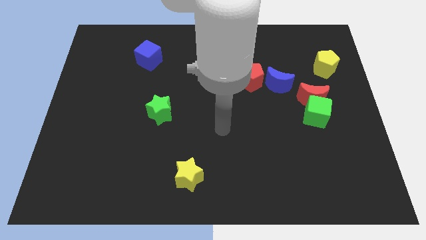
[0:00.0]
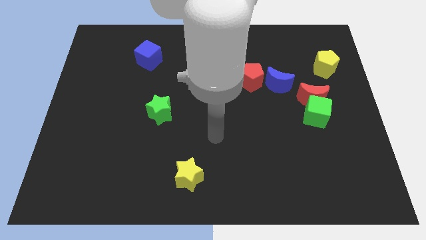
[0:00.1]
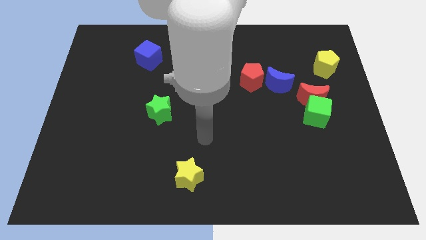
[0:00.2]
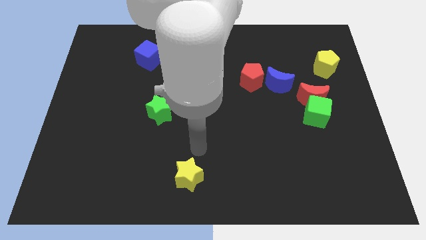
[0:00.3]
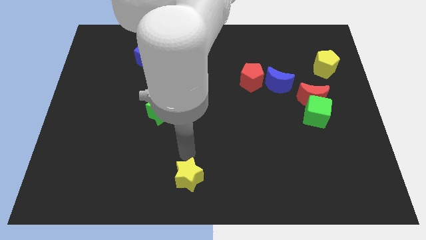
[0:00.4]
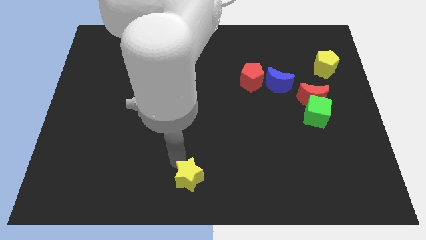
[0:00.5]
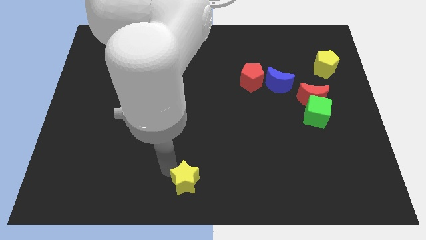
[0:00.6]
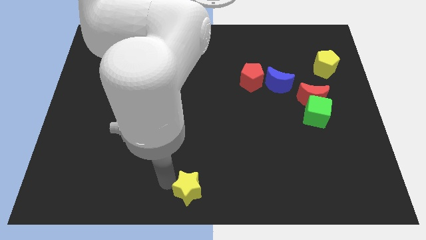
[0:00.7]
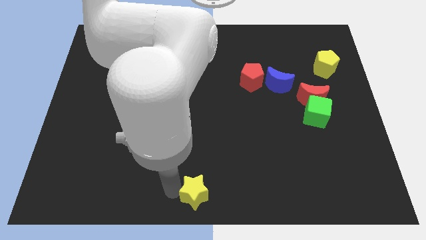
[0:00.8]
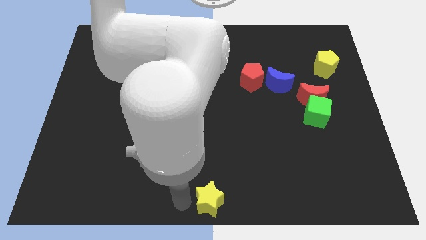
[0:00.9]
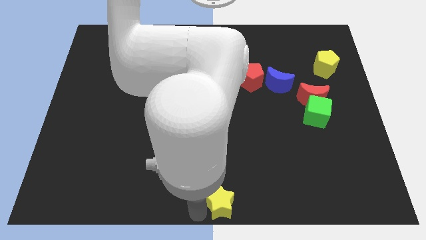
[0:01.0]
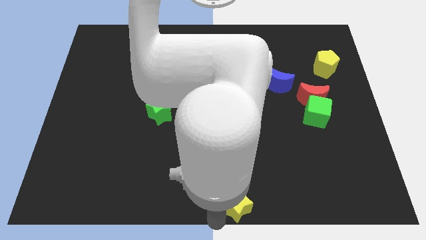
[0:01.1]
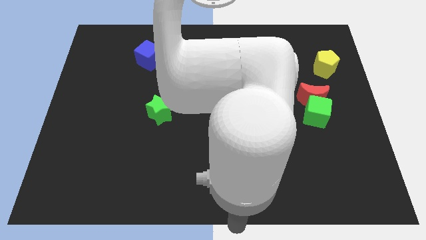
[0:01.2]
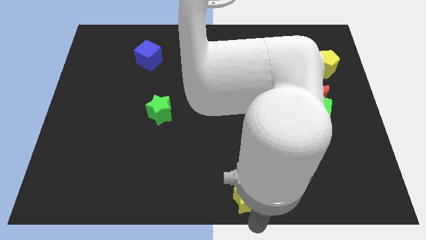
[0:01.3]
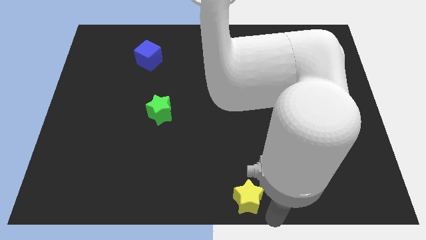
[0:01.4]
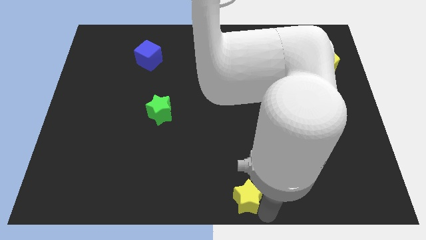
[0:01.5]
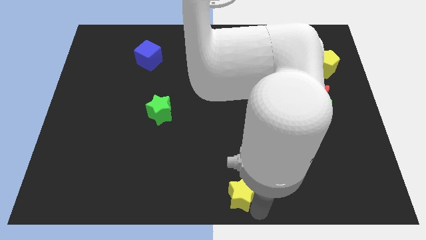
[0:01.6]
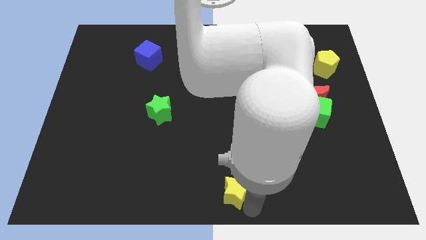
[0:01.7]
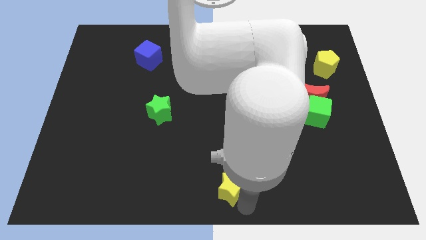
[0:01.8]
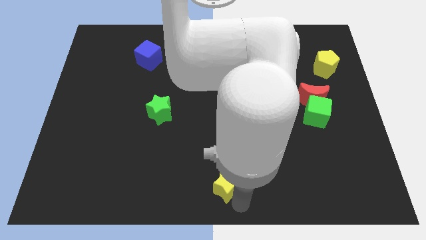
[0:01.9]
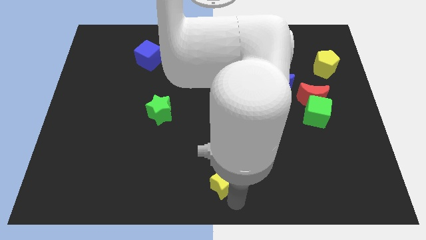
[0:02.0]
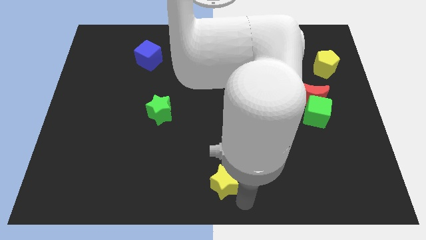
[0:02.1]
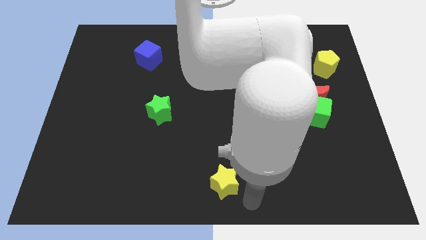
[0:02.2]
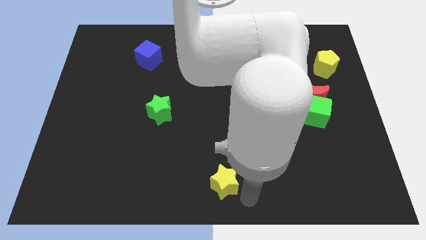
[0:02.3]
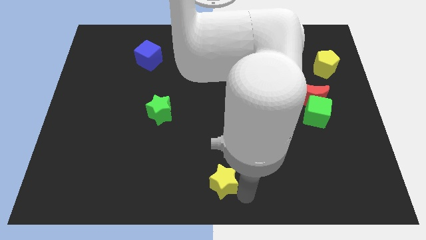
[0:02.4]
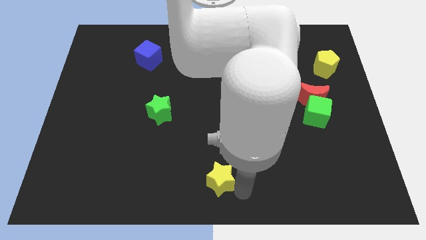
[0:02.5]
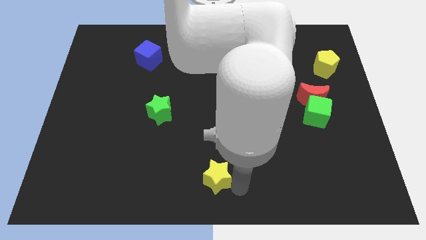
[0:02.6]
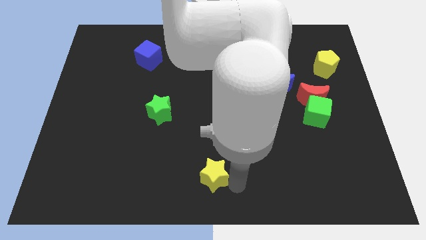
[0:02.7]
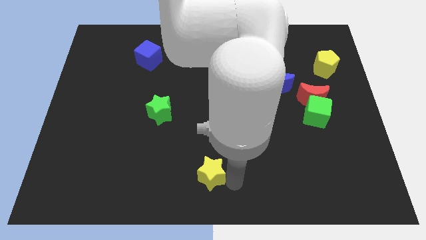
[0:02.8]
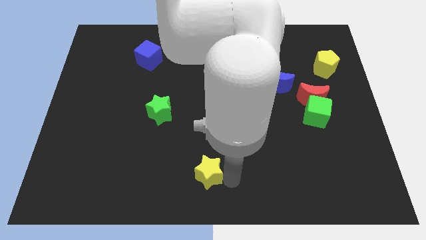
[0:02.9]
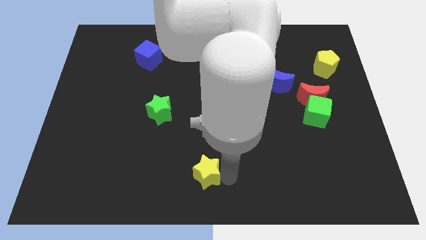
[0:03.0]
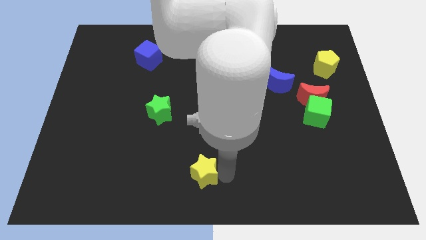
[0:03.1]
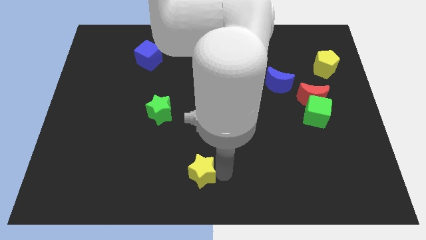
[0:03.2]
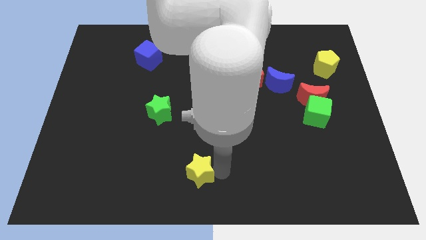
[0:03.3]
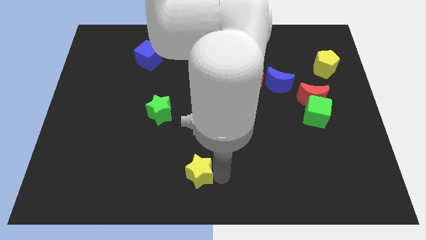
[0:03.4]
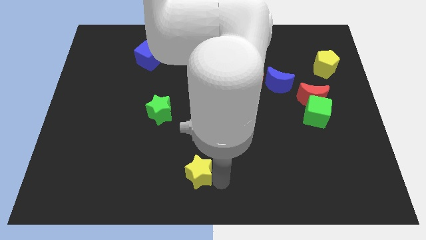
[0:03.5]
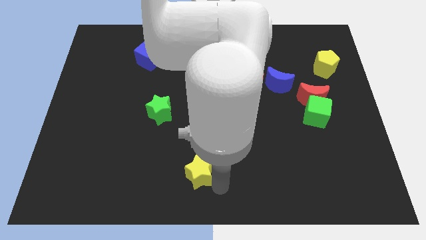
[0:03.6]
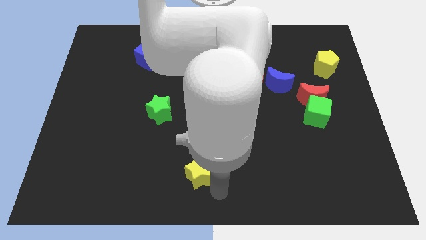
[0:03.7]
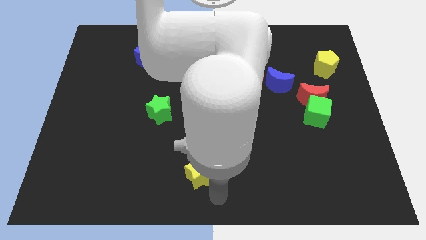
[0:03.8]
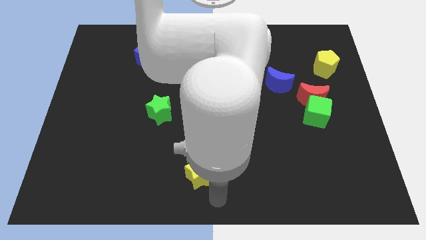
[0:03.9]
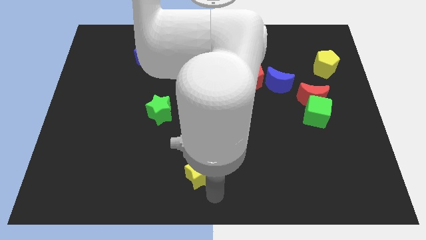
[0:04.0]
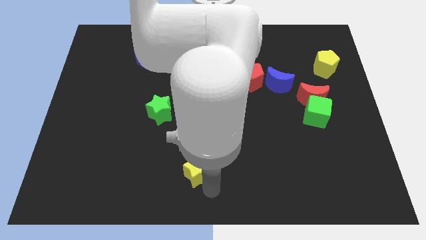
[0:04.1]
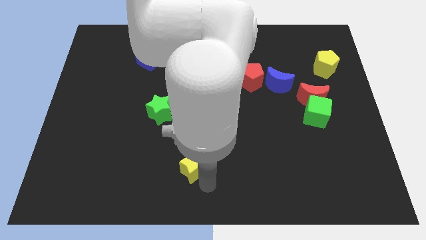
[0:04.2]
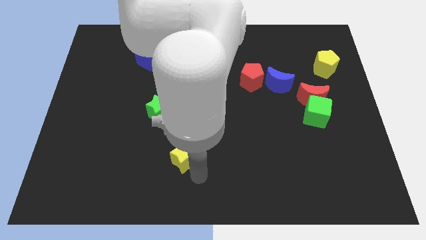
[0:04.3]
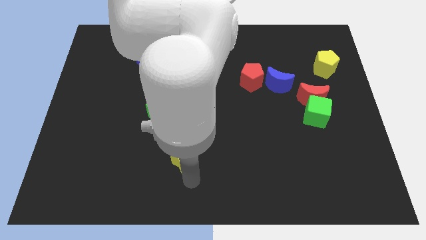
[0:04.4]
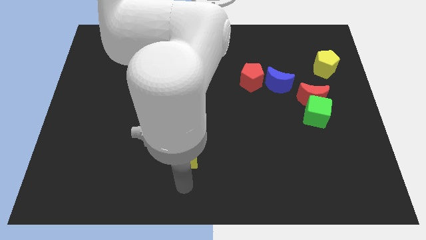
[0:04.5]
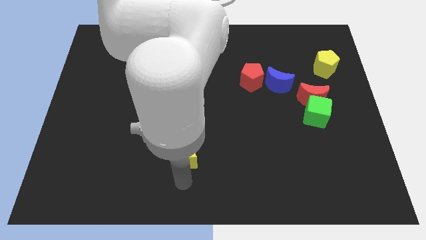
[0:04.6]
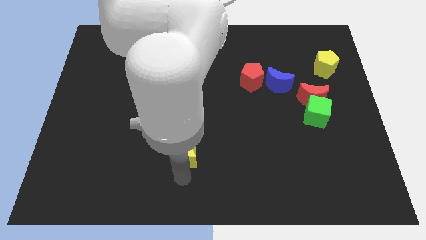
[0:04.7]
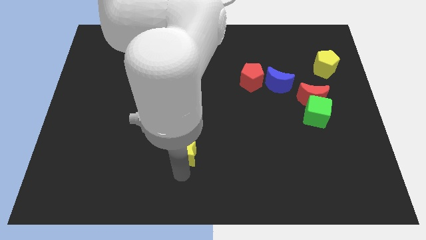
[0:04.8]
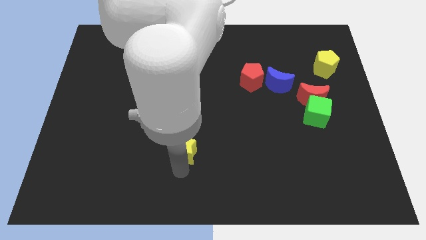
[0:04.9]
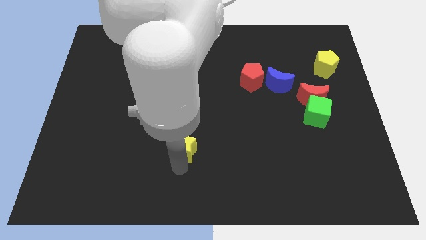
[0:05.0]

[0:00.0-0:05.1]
slide the yellow star up a little bit

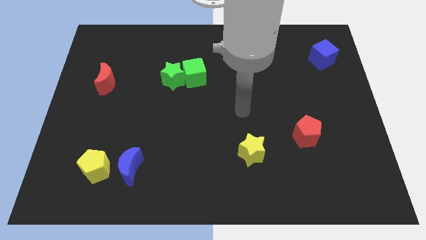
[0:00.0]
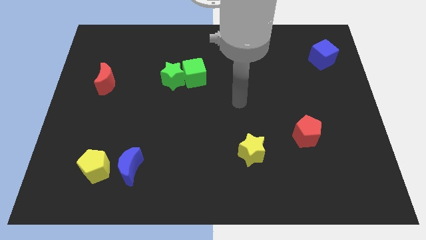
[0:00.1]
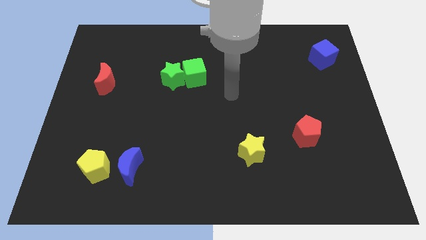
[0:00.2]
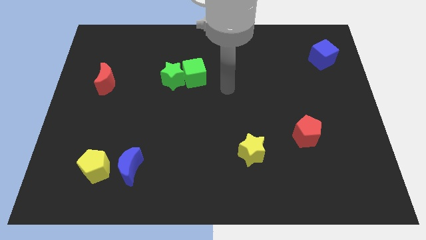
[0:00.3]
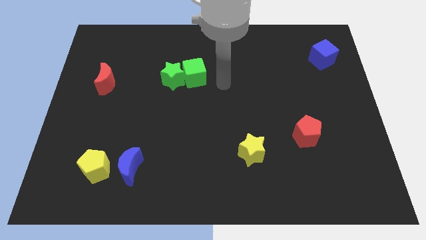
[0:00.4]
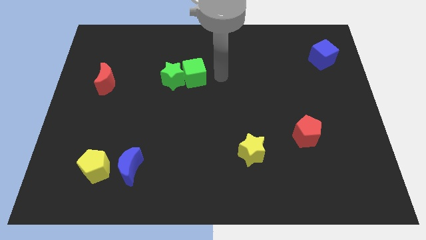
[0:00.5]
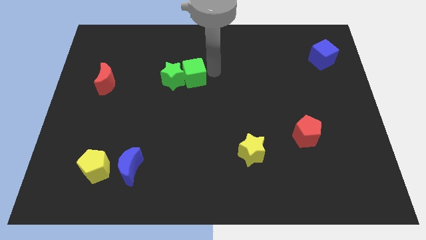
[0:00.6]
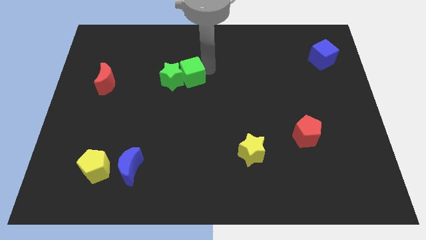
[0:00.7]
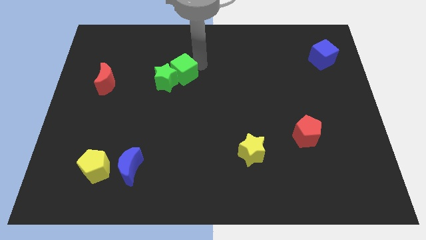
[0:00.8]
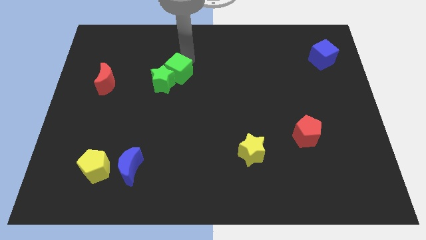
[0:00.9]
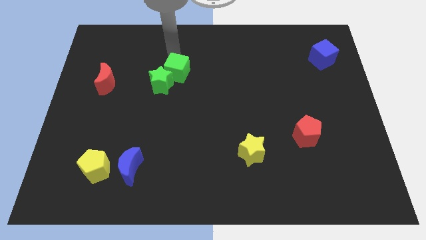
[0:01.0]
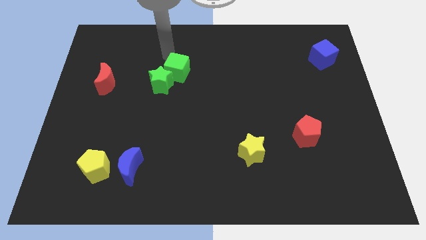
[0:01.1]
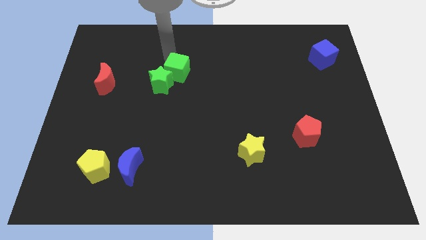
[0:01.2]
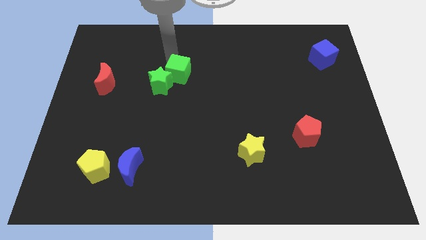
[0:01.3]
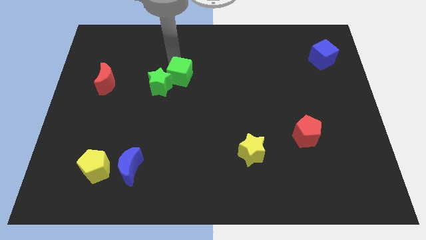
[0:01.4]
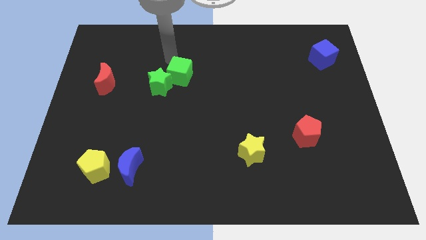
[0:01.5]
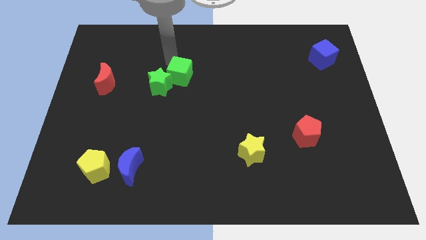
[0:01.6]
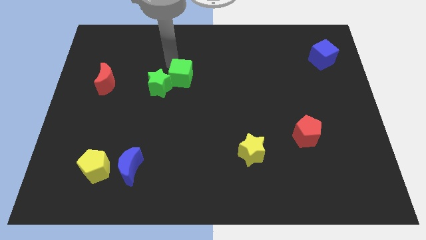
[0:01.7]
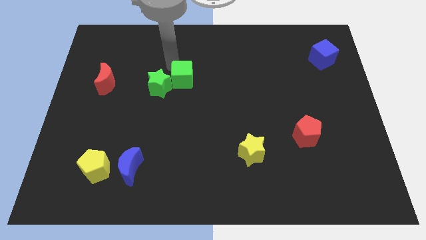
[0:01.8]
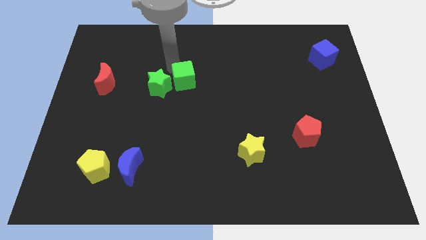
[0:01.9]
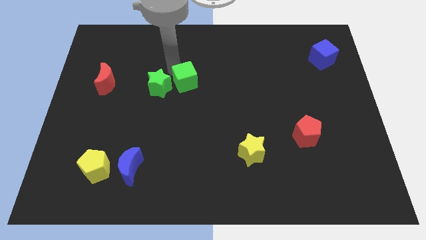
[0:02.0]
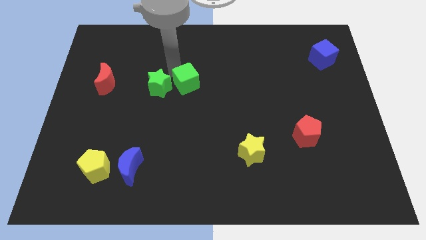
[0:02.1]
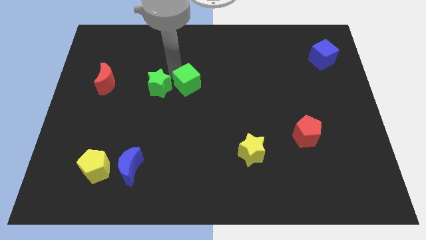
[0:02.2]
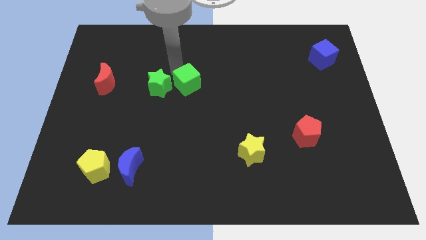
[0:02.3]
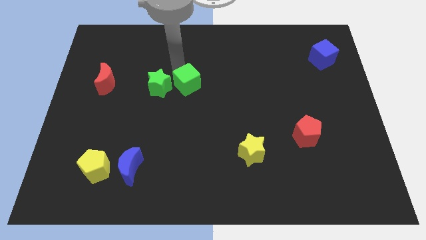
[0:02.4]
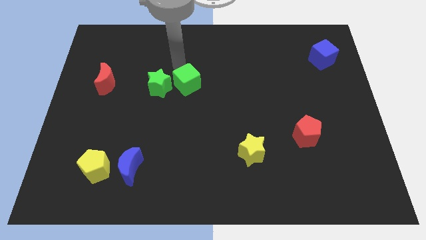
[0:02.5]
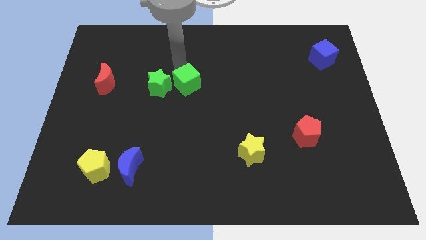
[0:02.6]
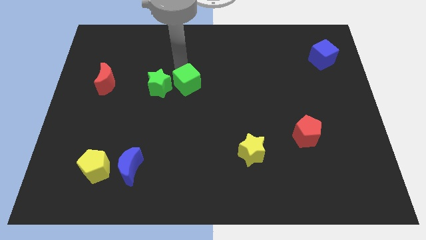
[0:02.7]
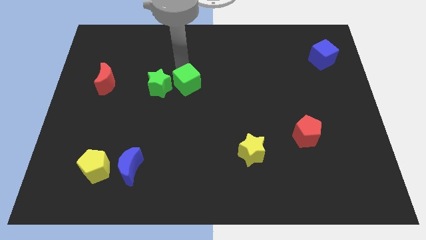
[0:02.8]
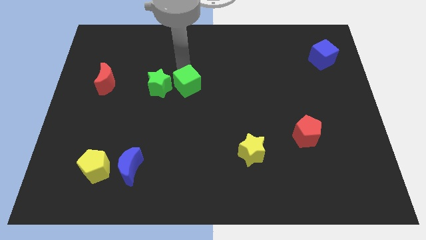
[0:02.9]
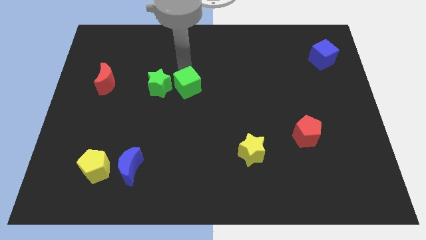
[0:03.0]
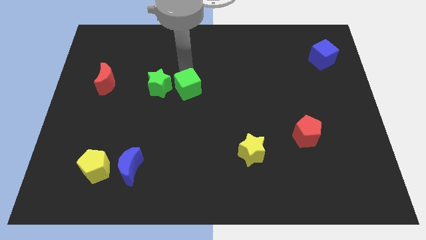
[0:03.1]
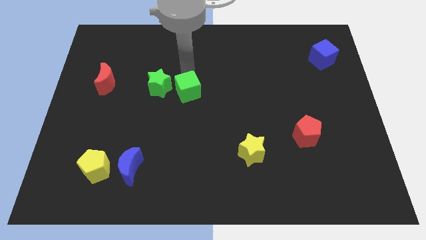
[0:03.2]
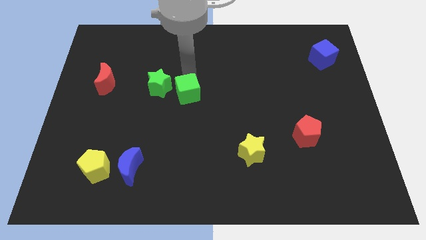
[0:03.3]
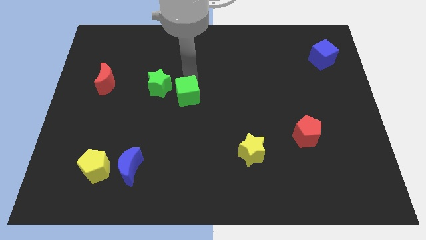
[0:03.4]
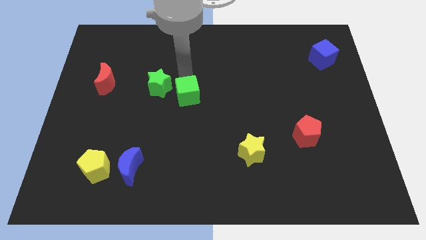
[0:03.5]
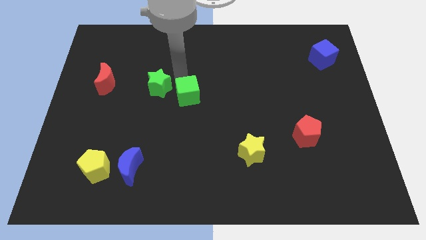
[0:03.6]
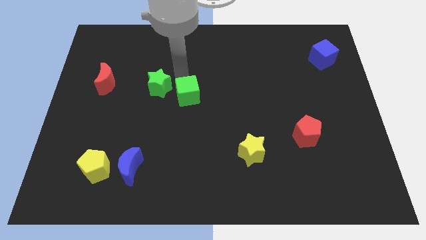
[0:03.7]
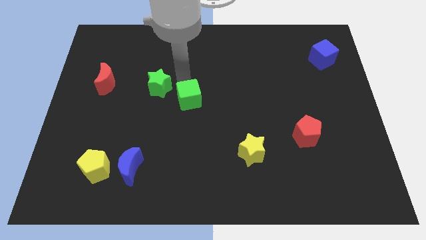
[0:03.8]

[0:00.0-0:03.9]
slightly move the green cube down
